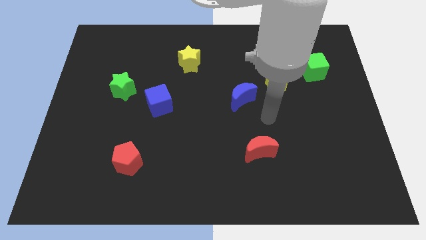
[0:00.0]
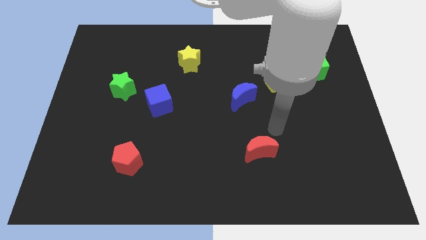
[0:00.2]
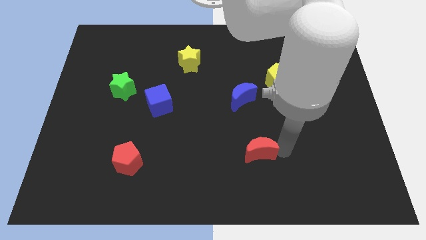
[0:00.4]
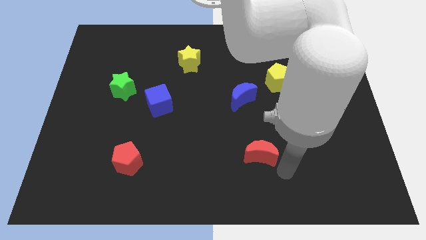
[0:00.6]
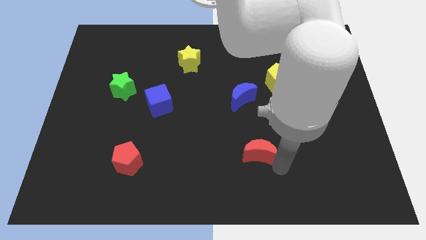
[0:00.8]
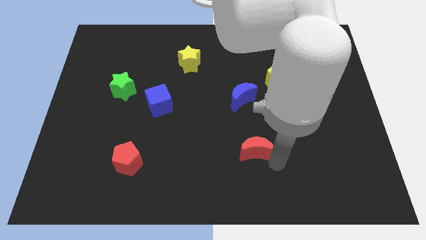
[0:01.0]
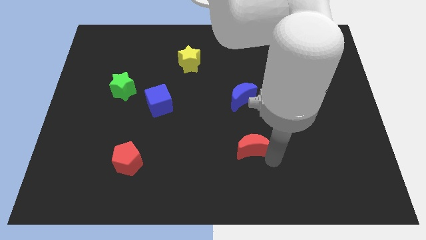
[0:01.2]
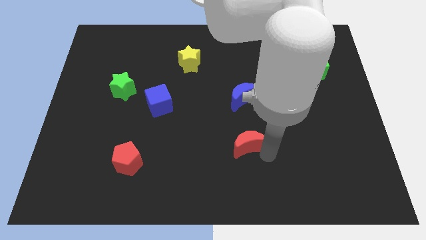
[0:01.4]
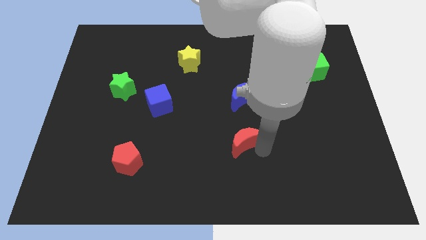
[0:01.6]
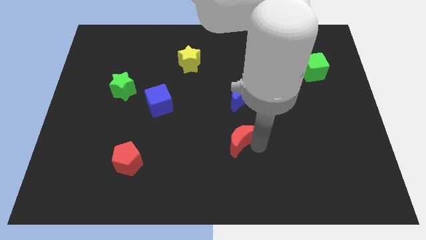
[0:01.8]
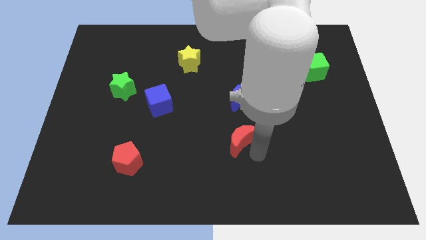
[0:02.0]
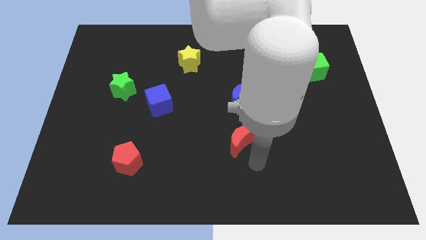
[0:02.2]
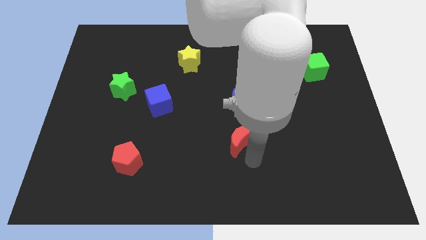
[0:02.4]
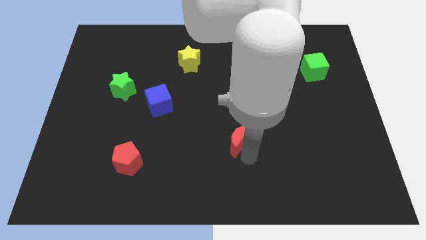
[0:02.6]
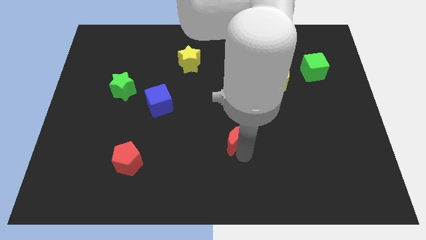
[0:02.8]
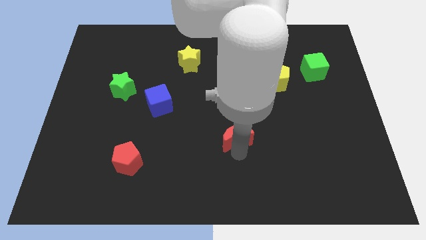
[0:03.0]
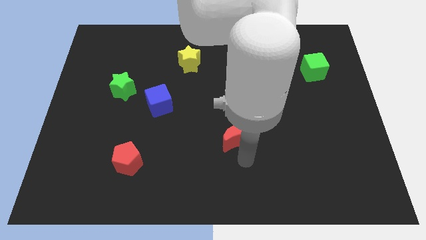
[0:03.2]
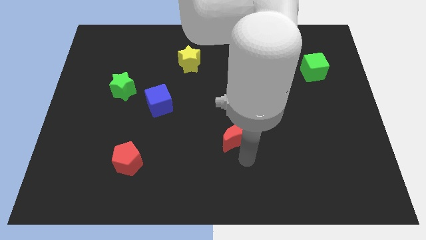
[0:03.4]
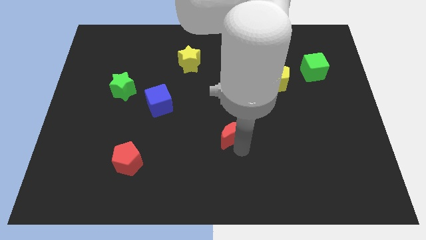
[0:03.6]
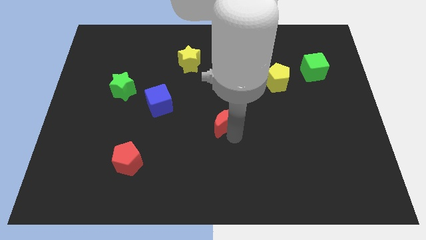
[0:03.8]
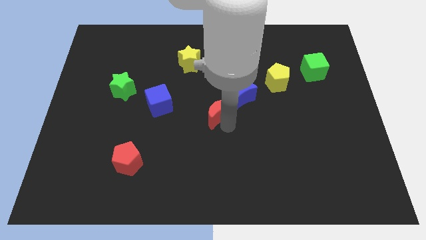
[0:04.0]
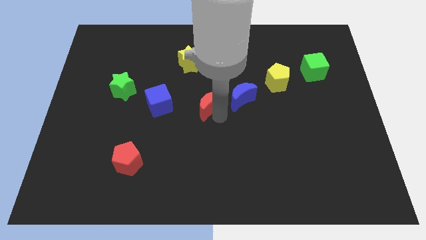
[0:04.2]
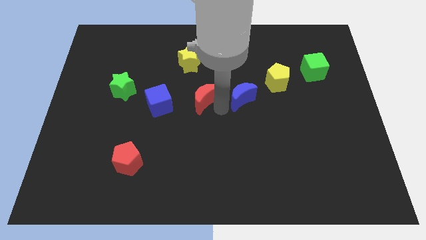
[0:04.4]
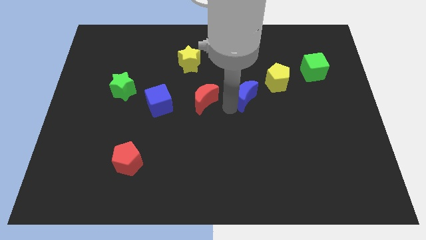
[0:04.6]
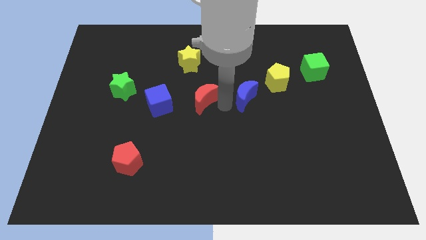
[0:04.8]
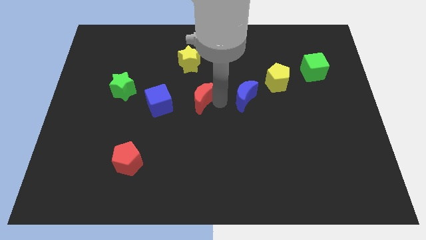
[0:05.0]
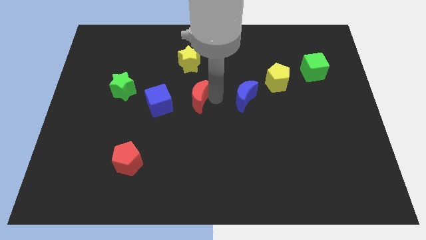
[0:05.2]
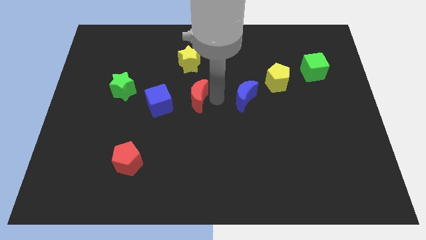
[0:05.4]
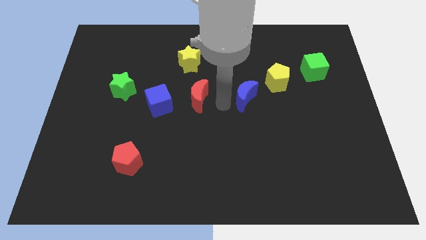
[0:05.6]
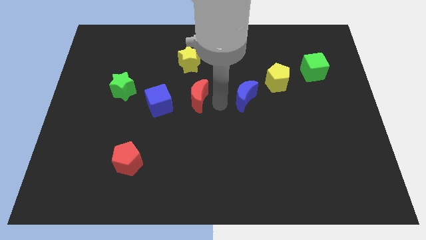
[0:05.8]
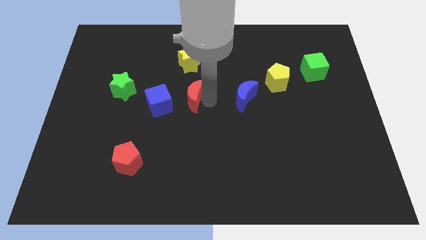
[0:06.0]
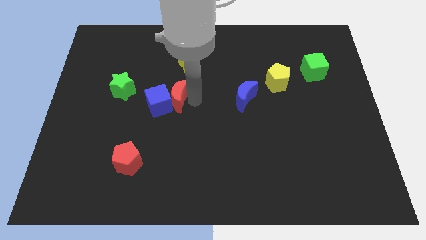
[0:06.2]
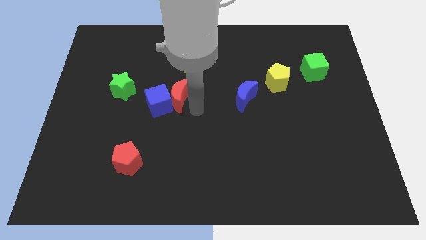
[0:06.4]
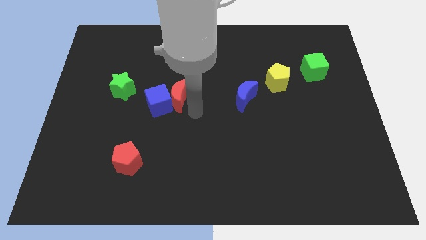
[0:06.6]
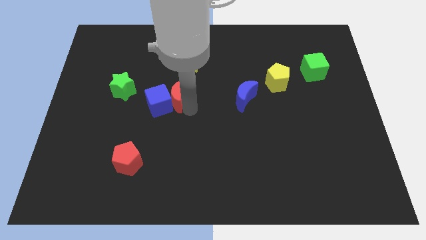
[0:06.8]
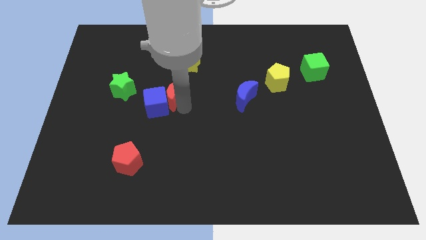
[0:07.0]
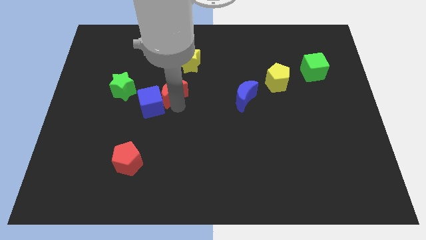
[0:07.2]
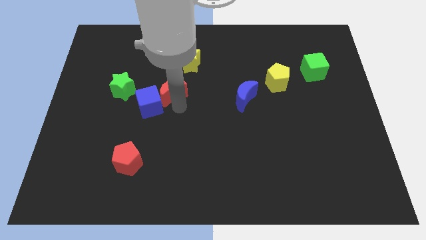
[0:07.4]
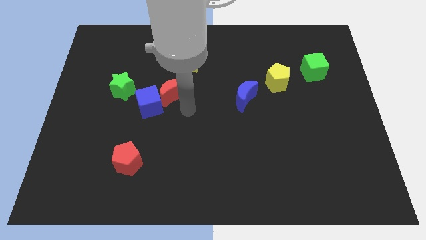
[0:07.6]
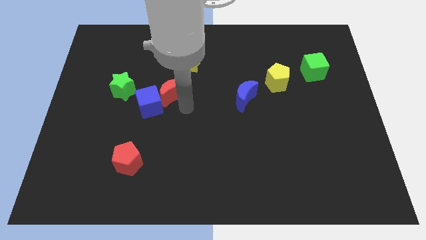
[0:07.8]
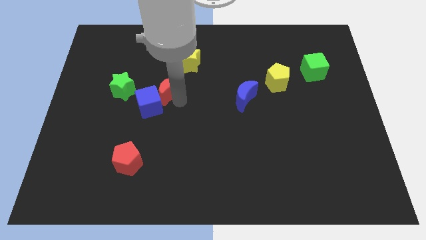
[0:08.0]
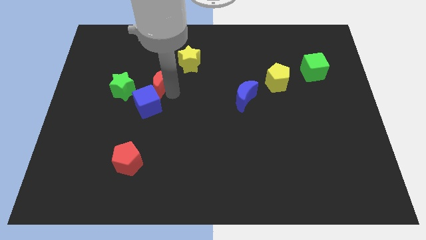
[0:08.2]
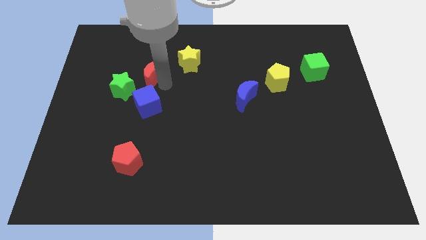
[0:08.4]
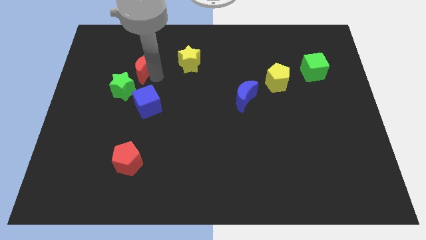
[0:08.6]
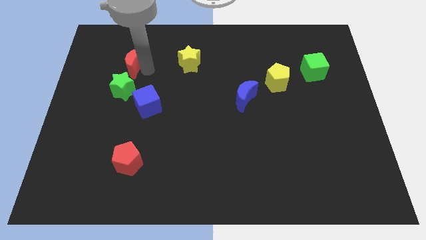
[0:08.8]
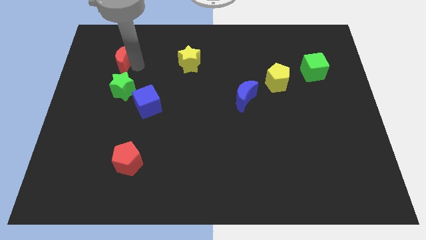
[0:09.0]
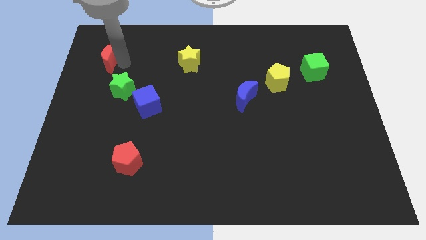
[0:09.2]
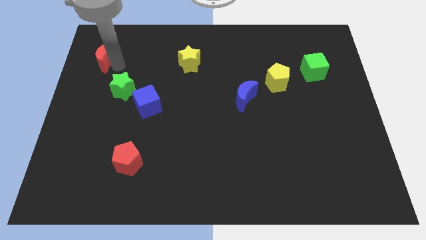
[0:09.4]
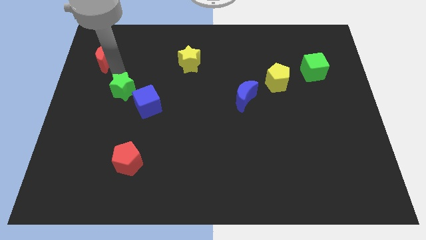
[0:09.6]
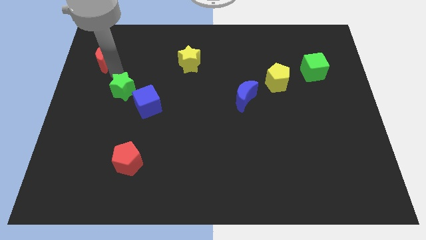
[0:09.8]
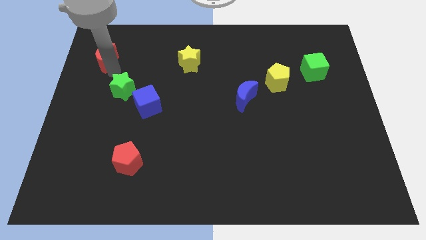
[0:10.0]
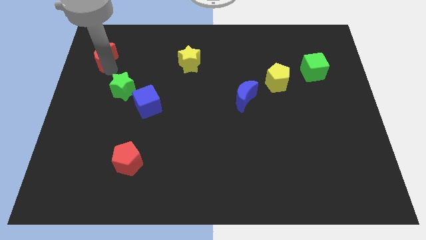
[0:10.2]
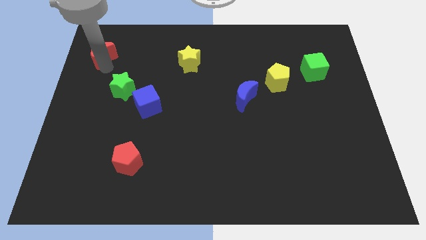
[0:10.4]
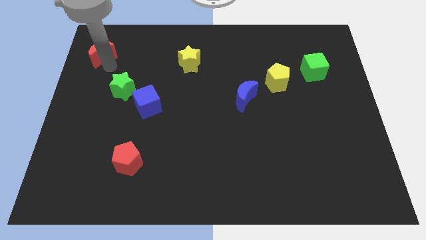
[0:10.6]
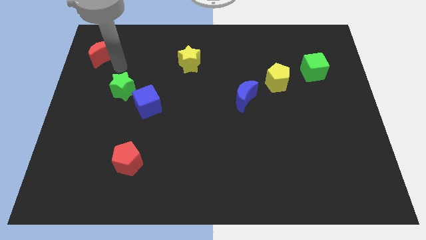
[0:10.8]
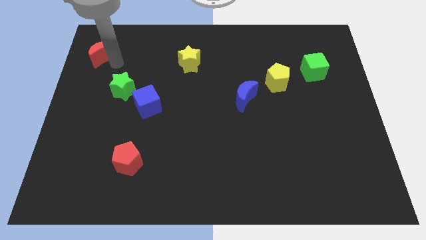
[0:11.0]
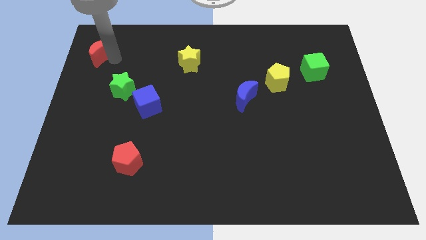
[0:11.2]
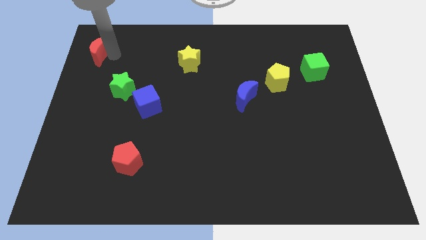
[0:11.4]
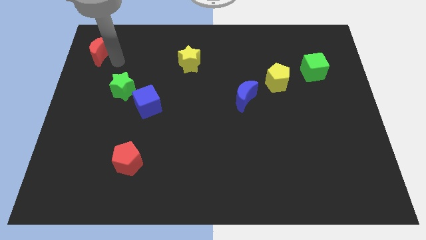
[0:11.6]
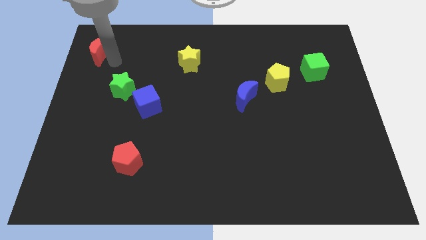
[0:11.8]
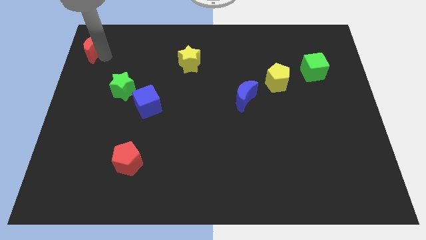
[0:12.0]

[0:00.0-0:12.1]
put the red moon to the upper left corner
